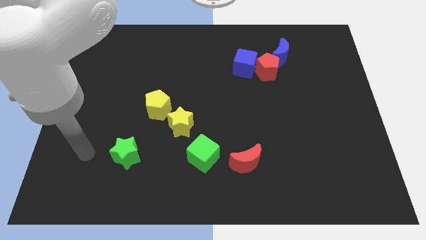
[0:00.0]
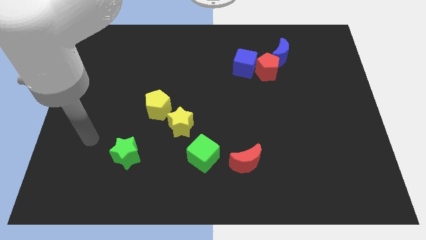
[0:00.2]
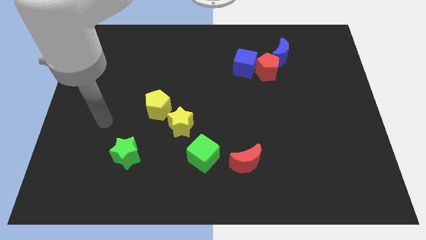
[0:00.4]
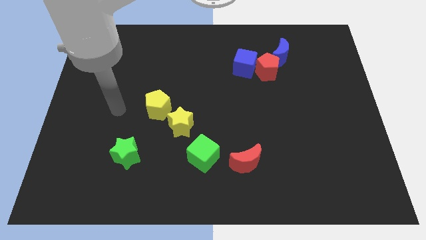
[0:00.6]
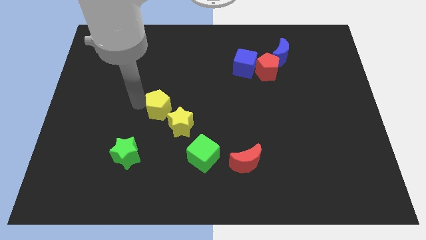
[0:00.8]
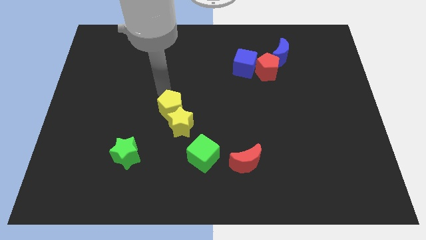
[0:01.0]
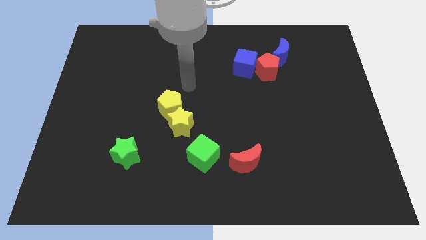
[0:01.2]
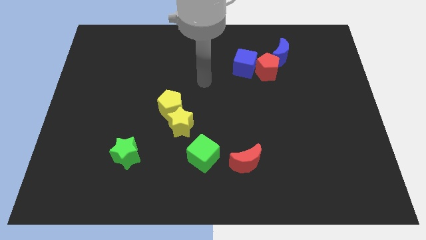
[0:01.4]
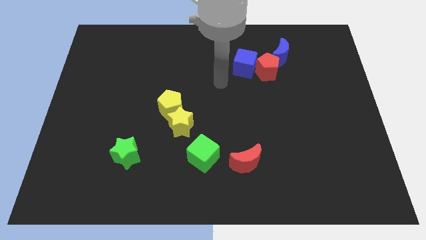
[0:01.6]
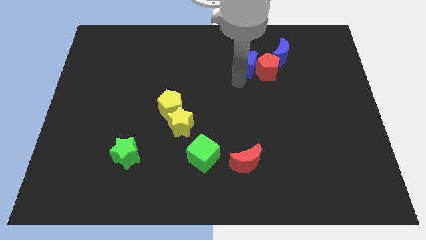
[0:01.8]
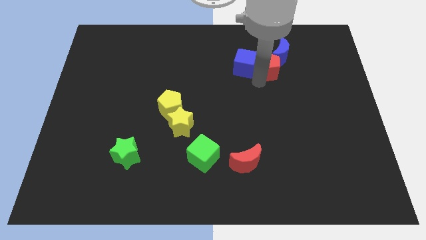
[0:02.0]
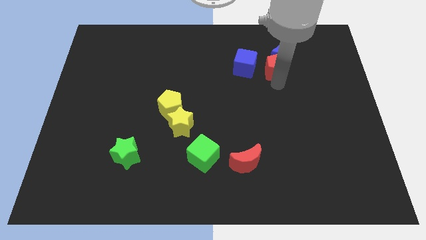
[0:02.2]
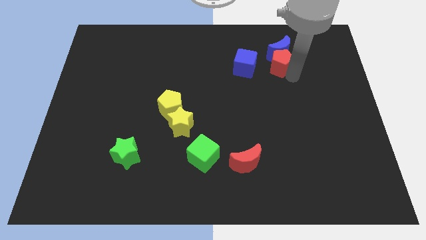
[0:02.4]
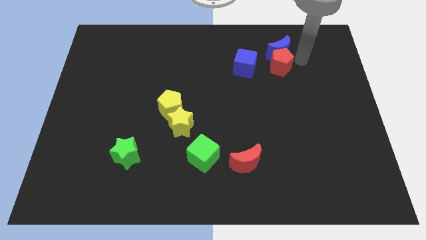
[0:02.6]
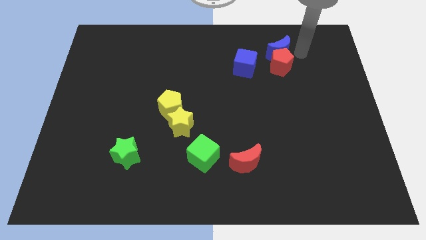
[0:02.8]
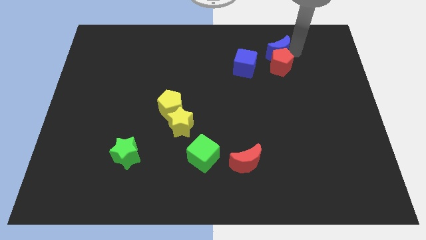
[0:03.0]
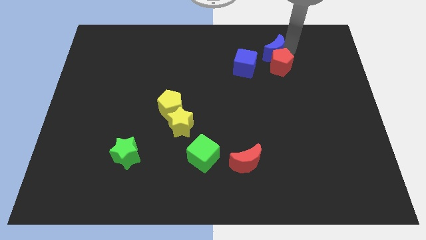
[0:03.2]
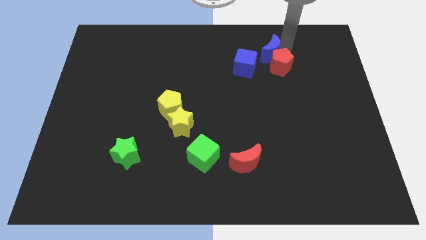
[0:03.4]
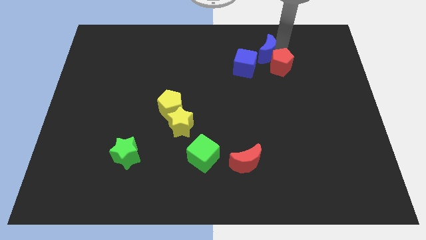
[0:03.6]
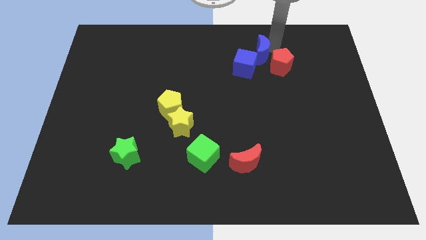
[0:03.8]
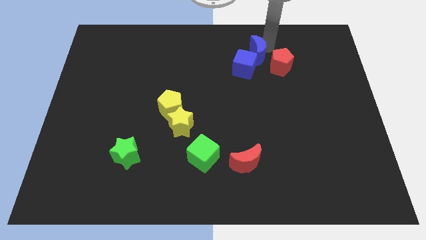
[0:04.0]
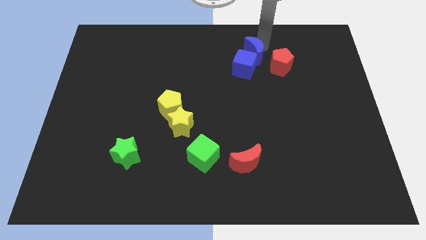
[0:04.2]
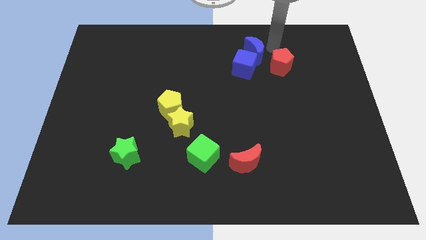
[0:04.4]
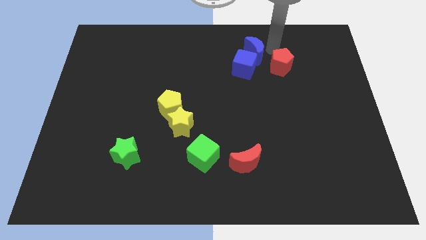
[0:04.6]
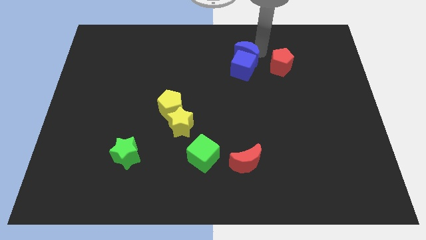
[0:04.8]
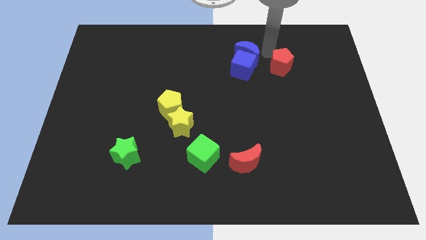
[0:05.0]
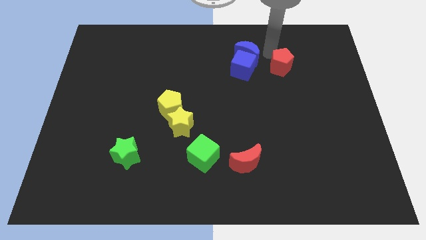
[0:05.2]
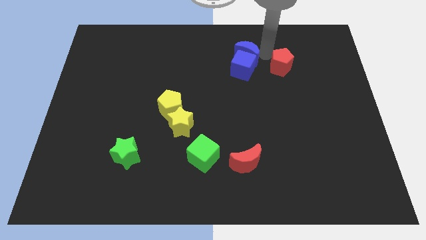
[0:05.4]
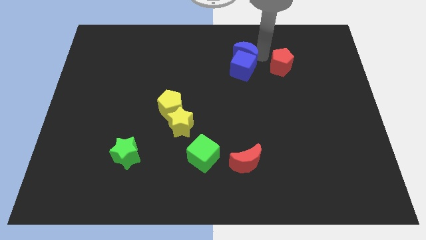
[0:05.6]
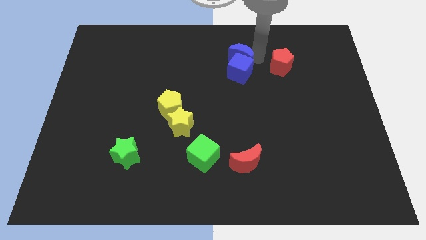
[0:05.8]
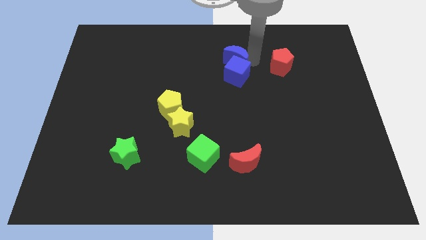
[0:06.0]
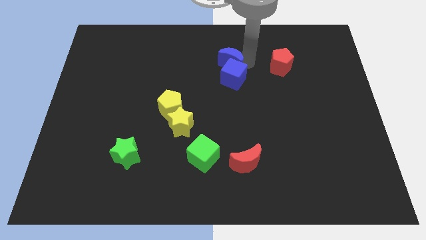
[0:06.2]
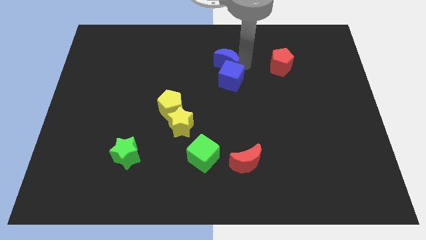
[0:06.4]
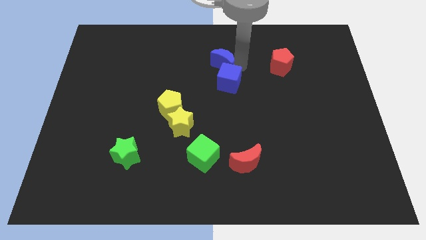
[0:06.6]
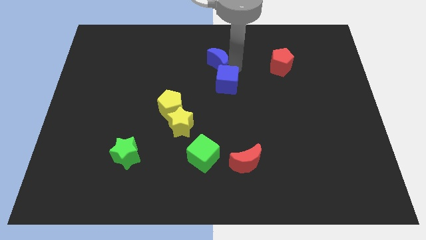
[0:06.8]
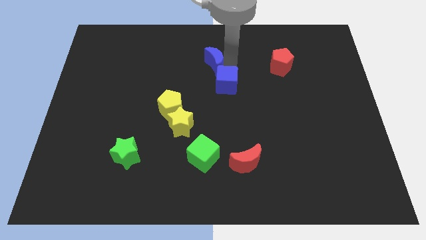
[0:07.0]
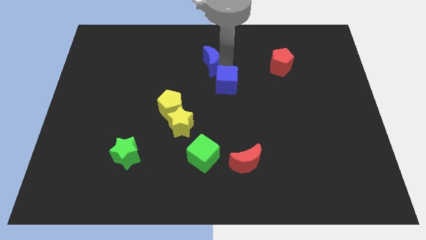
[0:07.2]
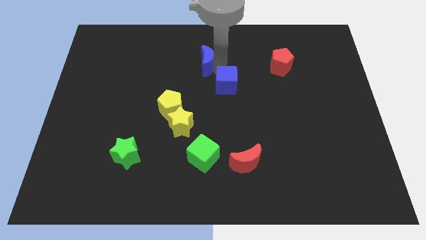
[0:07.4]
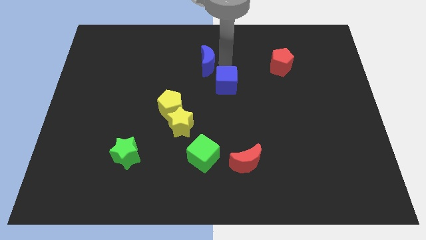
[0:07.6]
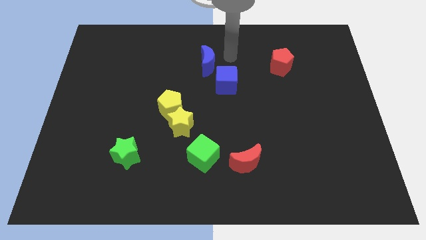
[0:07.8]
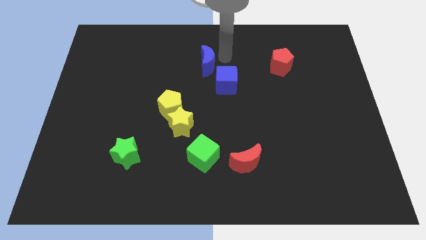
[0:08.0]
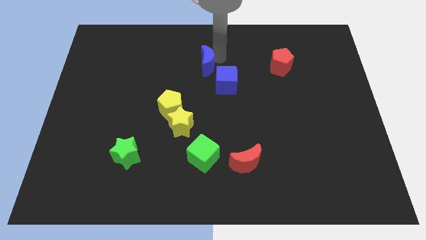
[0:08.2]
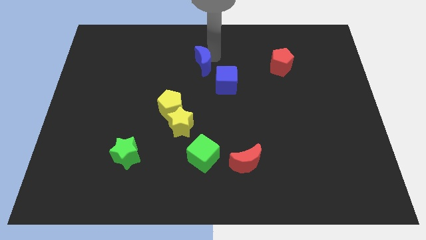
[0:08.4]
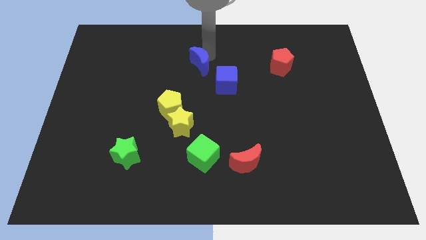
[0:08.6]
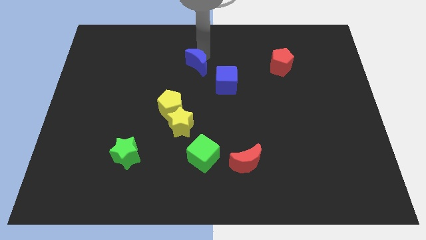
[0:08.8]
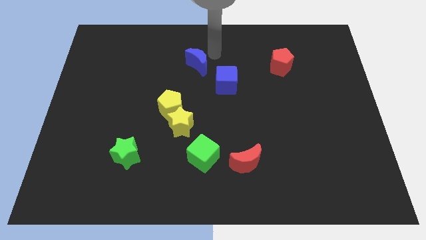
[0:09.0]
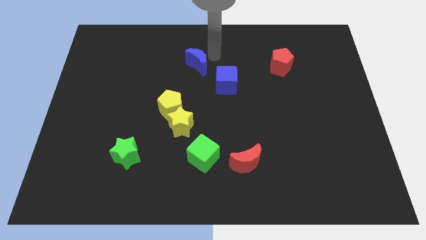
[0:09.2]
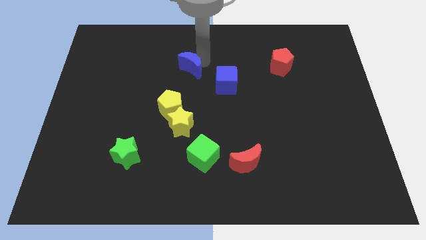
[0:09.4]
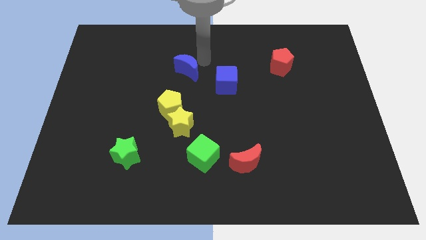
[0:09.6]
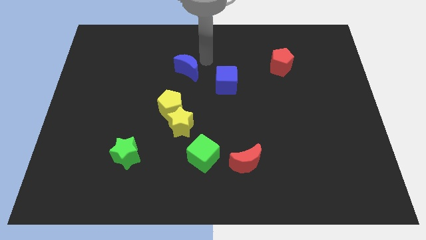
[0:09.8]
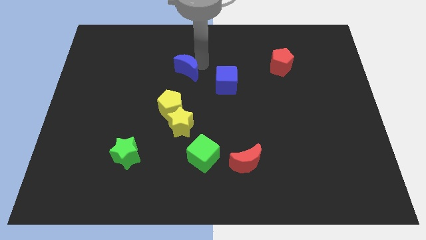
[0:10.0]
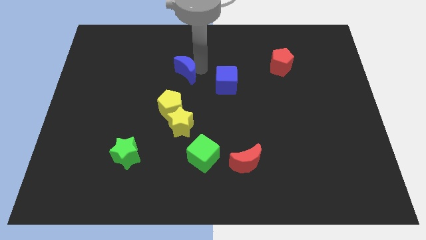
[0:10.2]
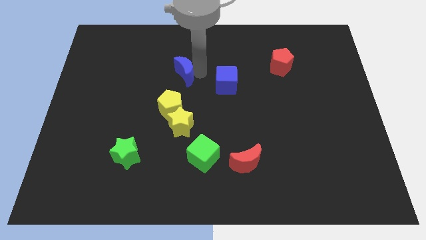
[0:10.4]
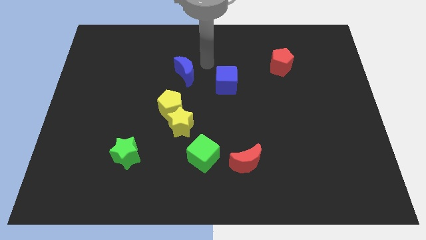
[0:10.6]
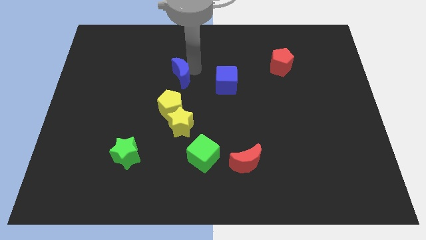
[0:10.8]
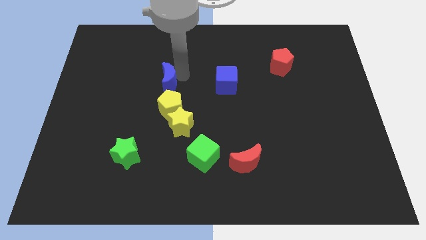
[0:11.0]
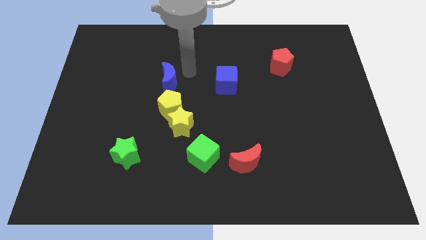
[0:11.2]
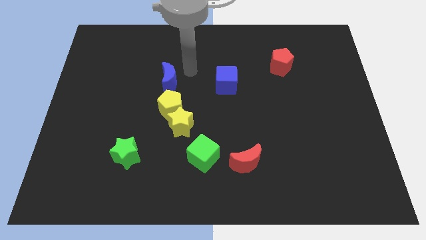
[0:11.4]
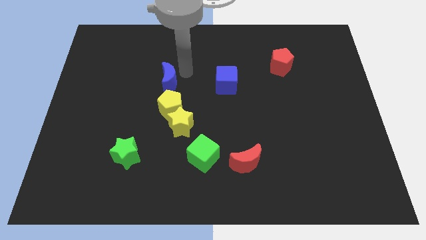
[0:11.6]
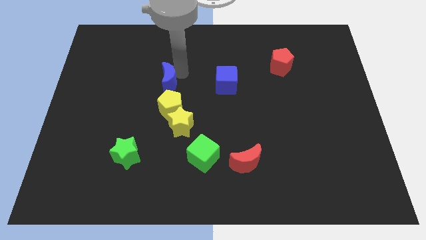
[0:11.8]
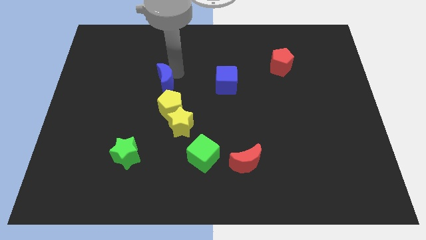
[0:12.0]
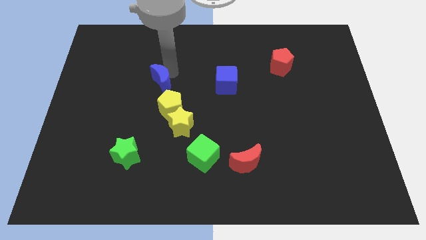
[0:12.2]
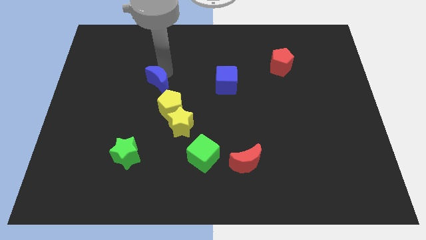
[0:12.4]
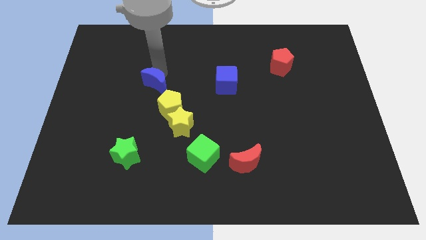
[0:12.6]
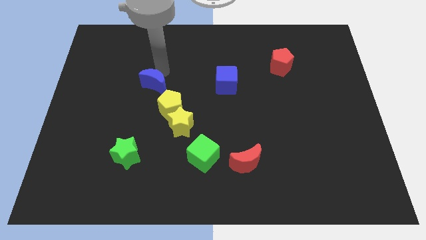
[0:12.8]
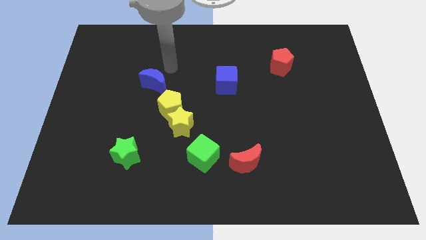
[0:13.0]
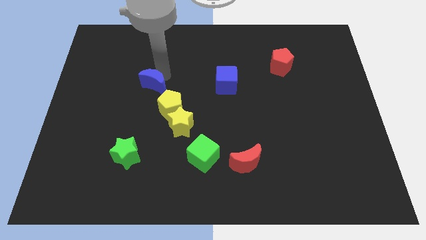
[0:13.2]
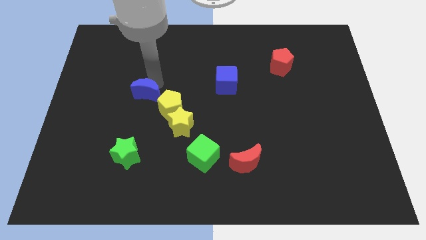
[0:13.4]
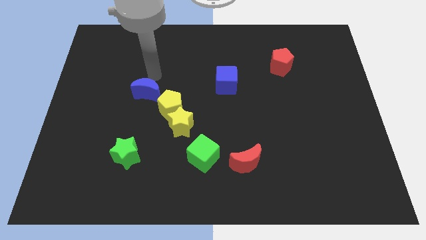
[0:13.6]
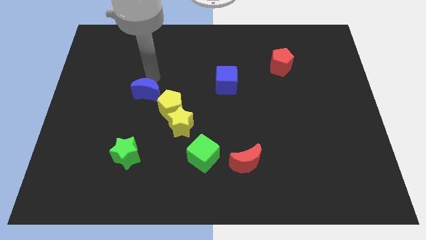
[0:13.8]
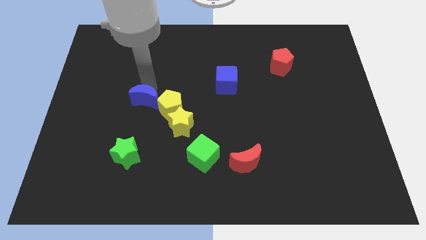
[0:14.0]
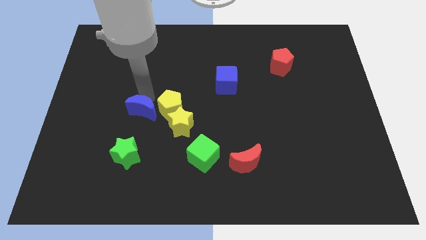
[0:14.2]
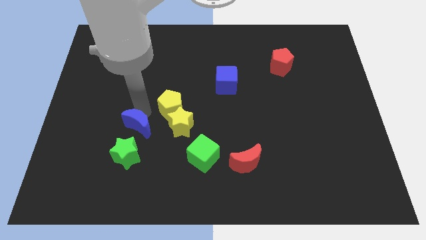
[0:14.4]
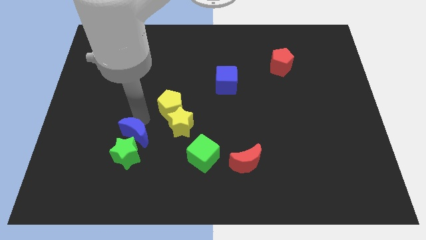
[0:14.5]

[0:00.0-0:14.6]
push the blue moon close to the green star

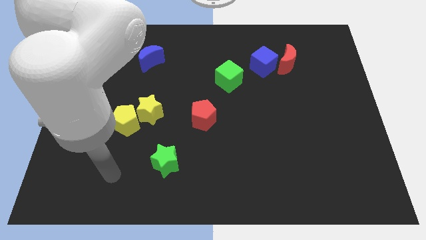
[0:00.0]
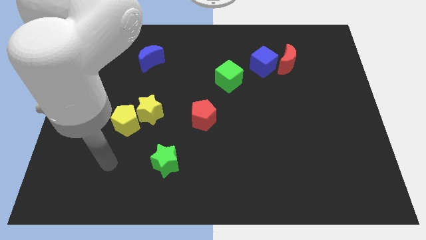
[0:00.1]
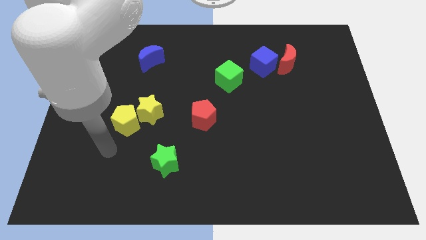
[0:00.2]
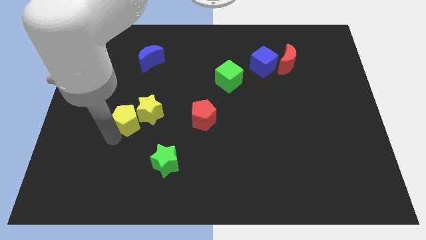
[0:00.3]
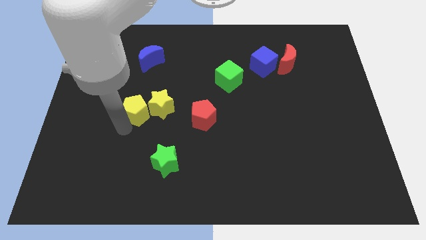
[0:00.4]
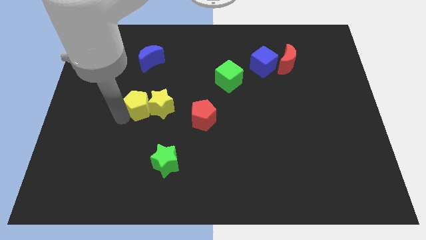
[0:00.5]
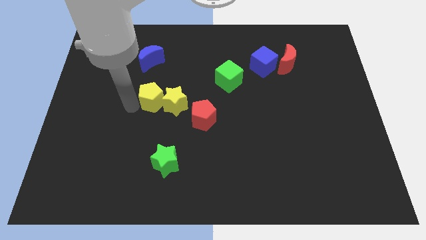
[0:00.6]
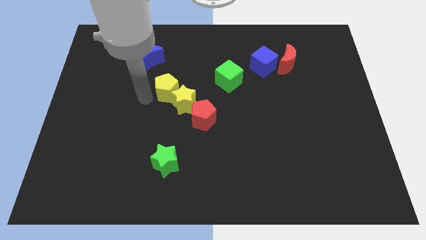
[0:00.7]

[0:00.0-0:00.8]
push the yellow star close to the red pentagon
